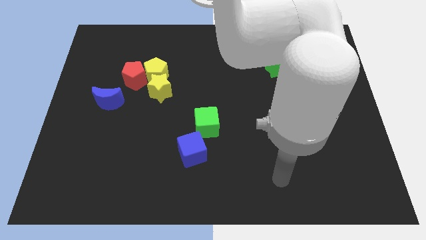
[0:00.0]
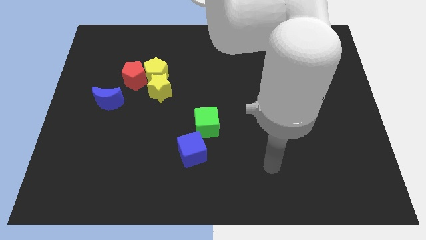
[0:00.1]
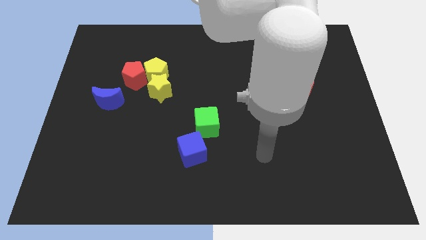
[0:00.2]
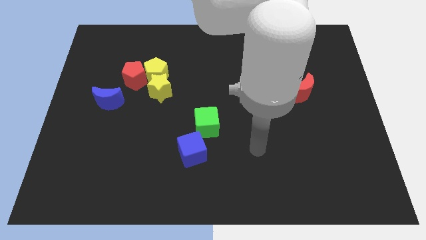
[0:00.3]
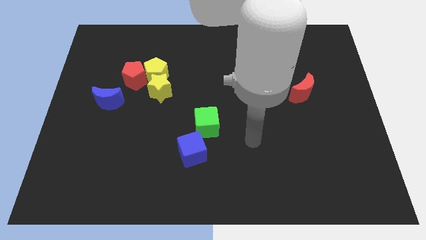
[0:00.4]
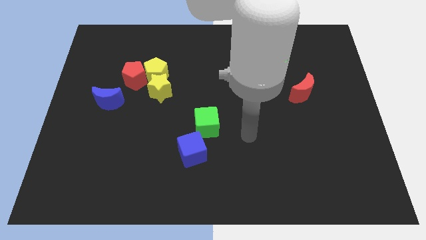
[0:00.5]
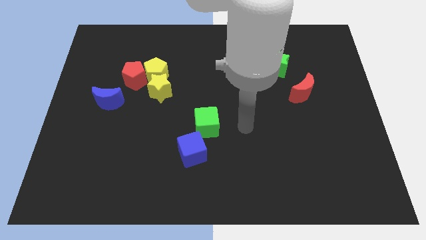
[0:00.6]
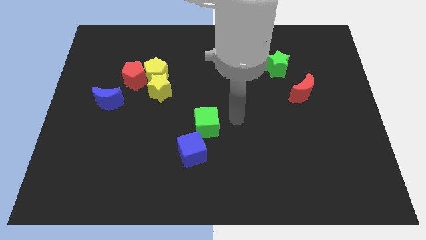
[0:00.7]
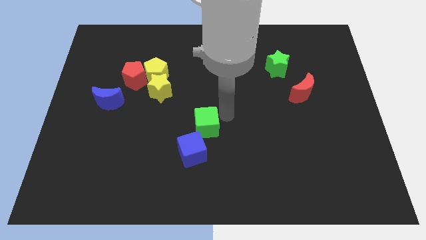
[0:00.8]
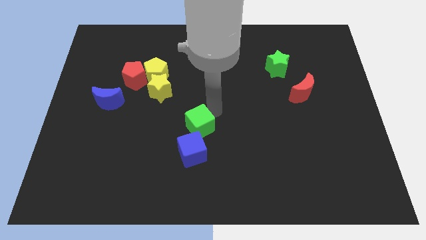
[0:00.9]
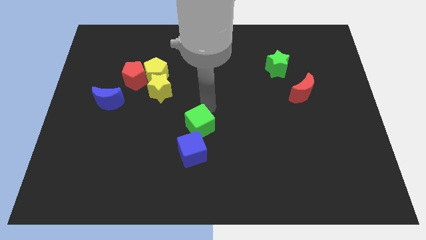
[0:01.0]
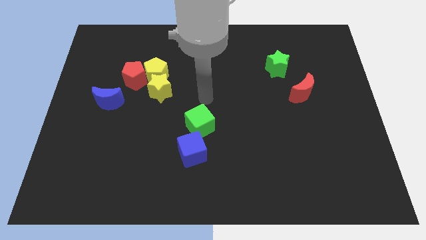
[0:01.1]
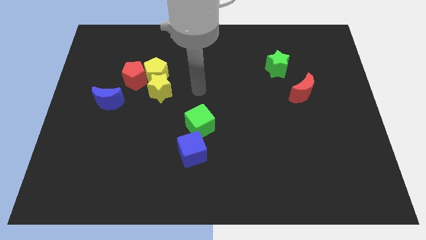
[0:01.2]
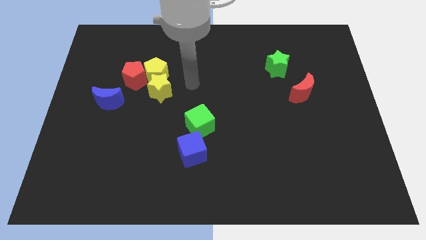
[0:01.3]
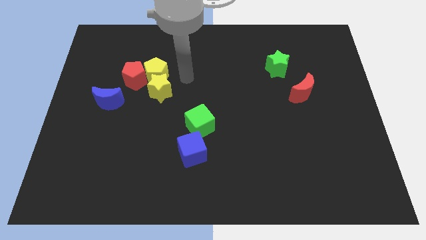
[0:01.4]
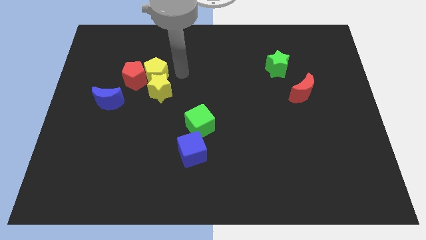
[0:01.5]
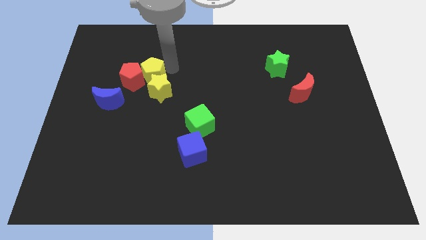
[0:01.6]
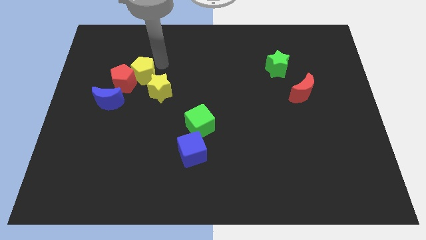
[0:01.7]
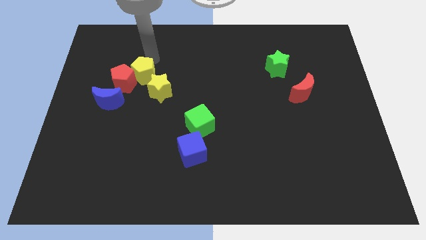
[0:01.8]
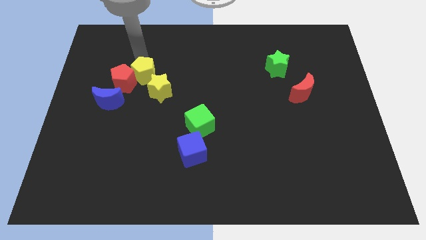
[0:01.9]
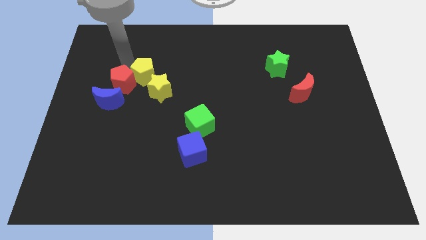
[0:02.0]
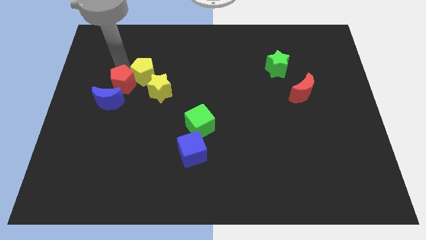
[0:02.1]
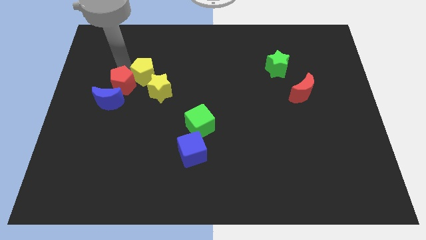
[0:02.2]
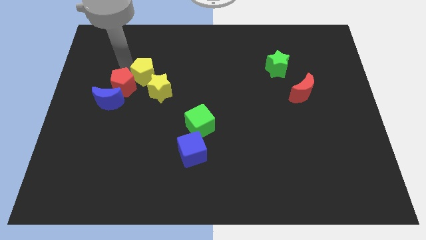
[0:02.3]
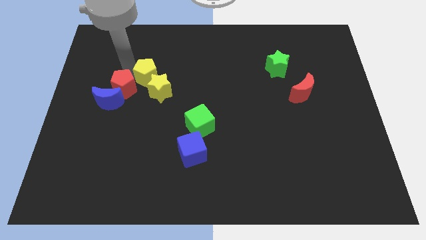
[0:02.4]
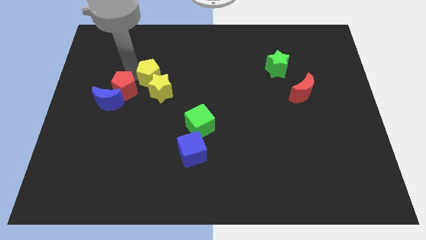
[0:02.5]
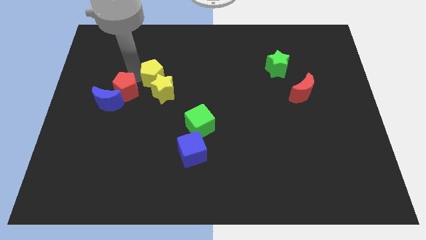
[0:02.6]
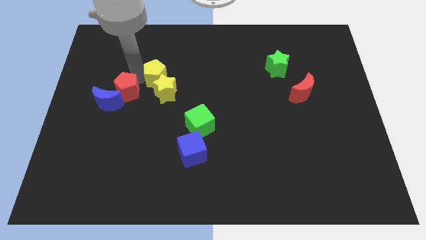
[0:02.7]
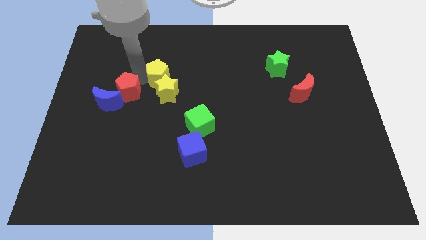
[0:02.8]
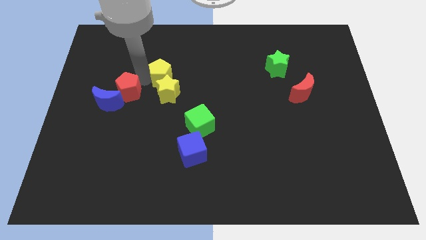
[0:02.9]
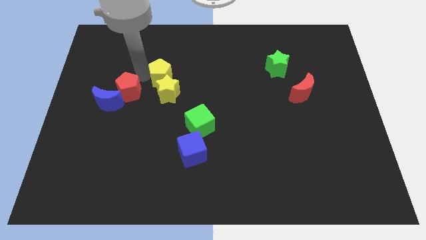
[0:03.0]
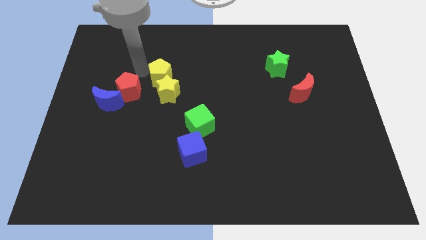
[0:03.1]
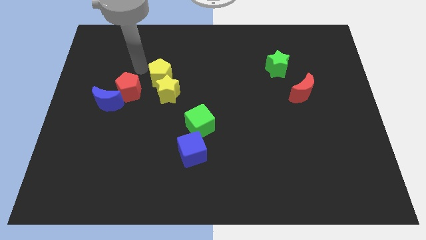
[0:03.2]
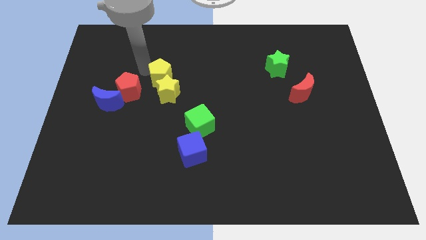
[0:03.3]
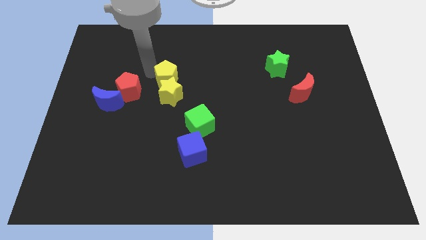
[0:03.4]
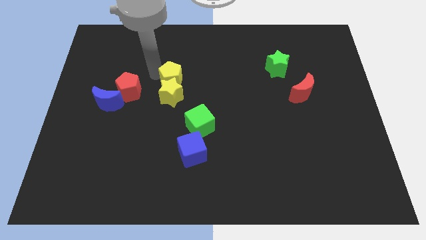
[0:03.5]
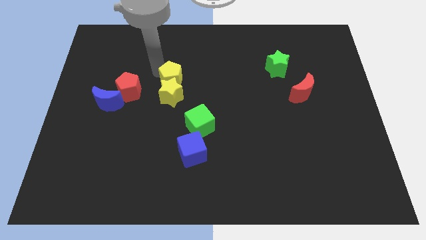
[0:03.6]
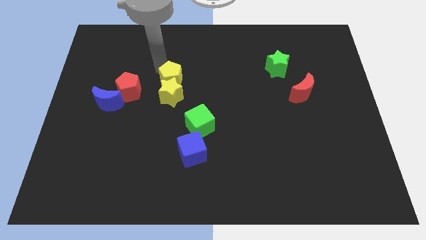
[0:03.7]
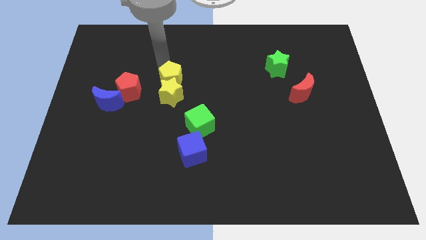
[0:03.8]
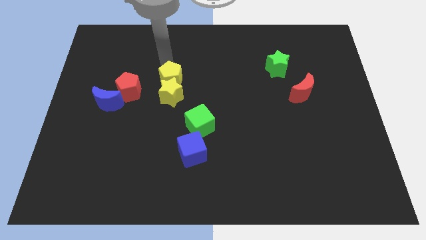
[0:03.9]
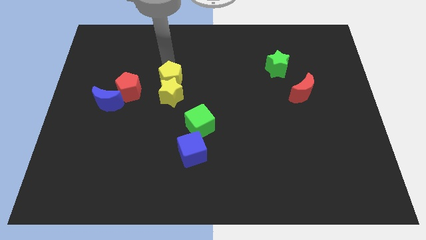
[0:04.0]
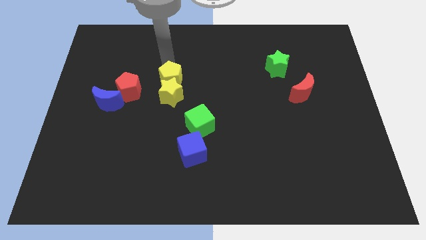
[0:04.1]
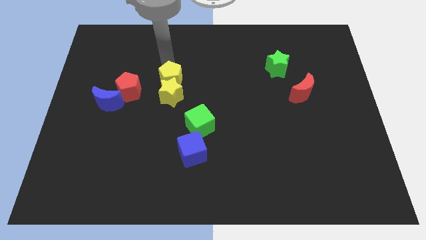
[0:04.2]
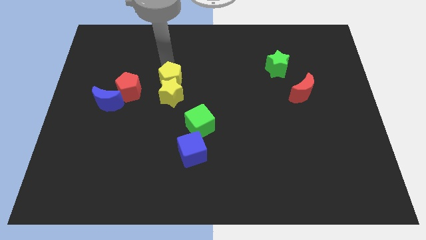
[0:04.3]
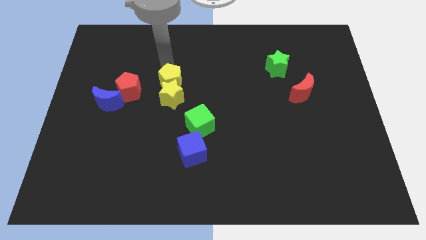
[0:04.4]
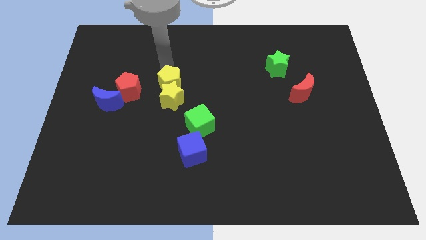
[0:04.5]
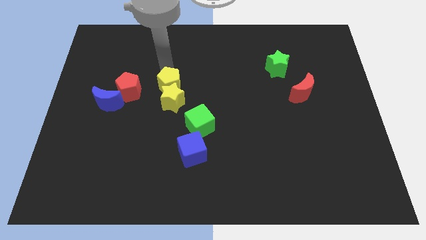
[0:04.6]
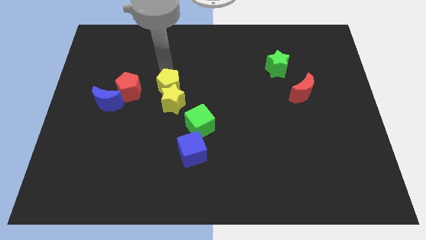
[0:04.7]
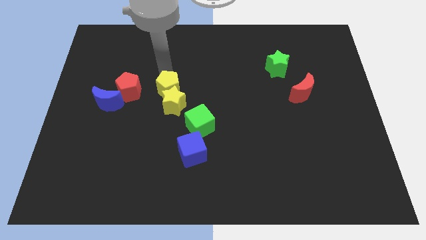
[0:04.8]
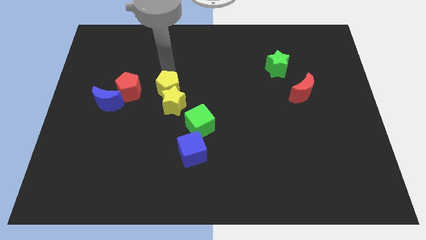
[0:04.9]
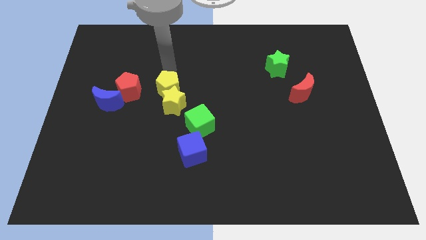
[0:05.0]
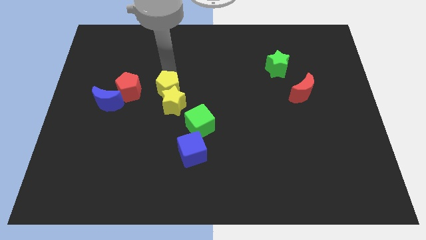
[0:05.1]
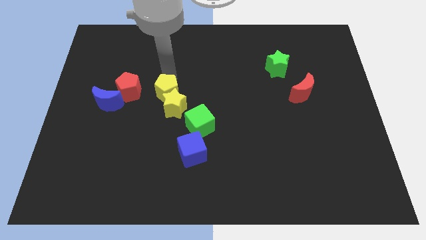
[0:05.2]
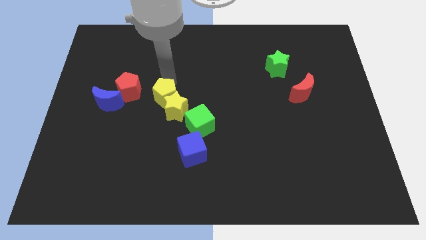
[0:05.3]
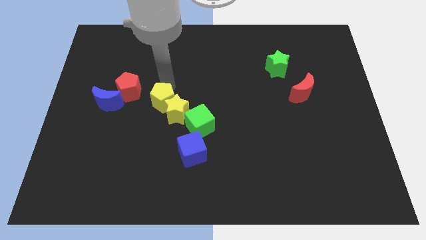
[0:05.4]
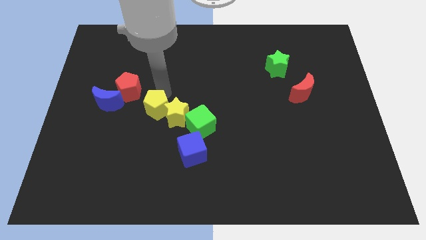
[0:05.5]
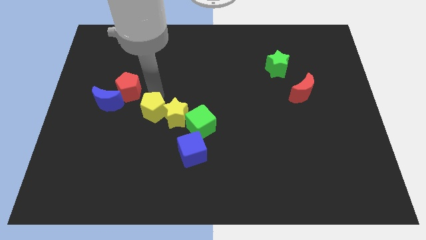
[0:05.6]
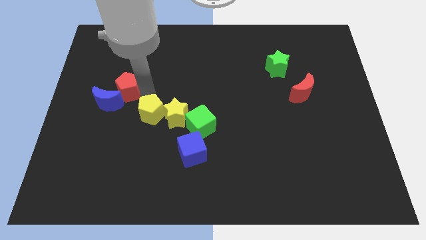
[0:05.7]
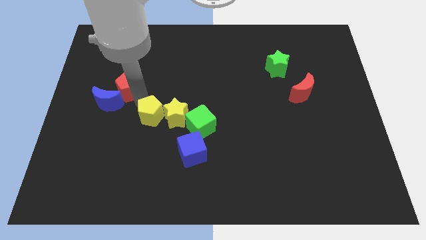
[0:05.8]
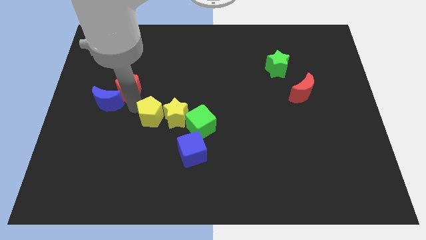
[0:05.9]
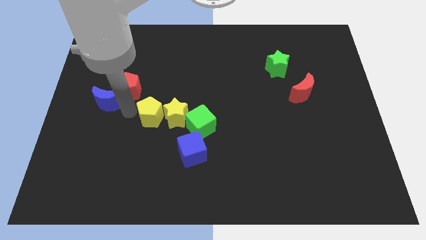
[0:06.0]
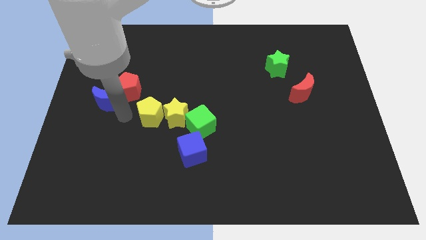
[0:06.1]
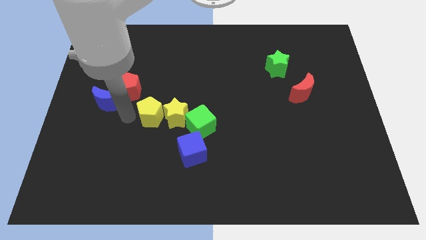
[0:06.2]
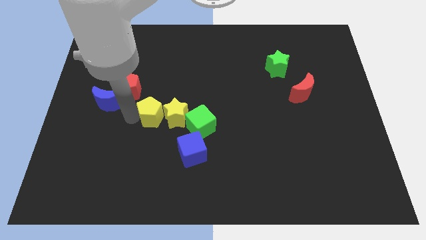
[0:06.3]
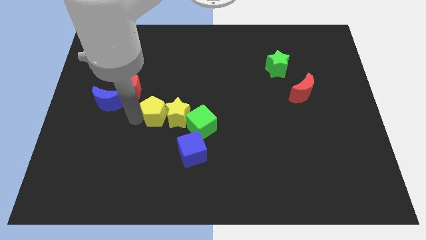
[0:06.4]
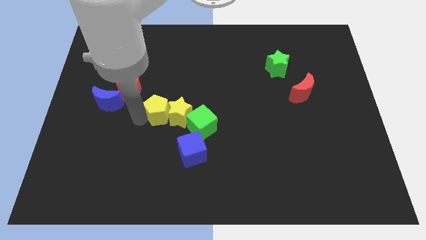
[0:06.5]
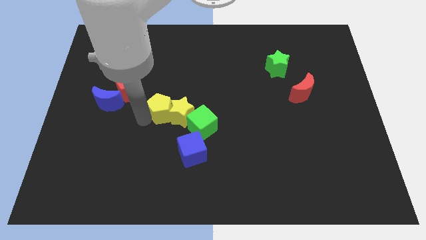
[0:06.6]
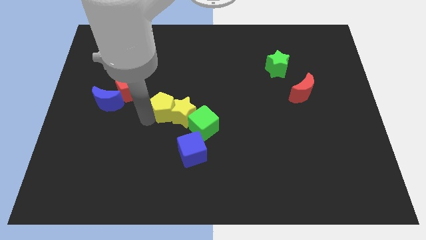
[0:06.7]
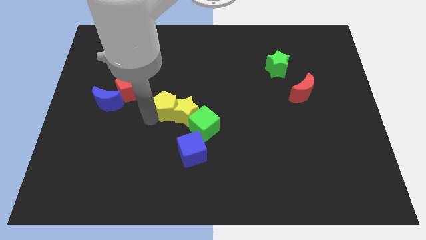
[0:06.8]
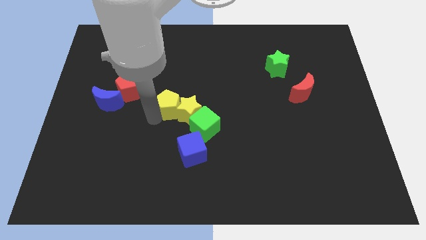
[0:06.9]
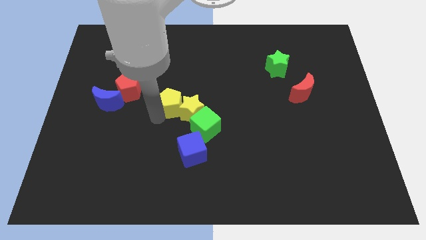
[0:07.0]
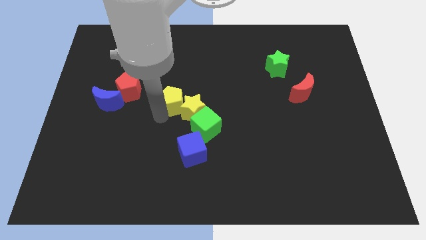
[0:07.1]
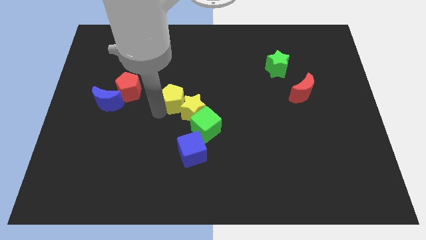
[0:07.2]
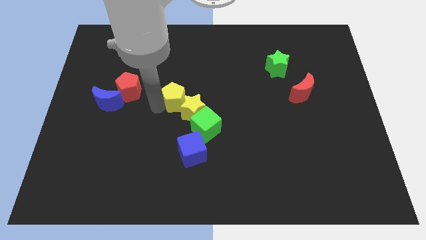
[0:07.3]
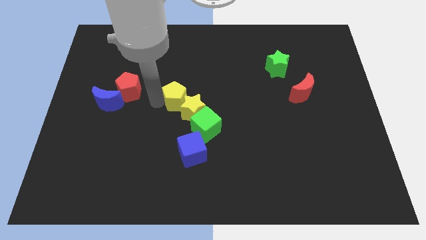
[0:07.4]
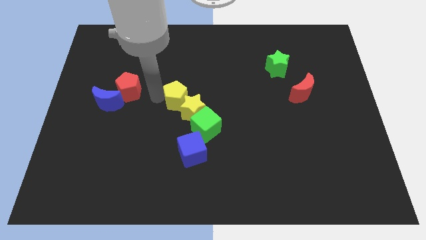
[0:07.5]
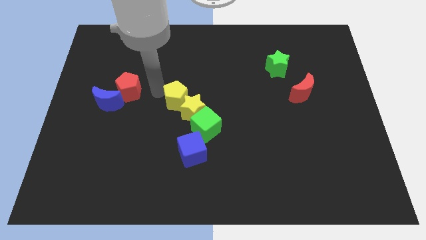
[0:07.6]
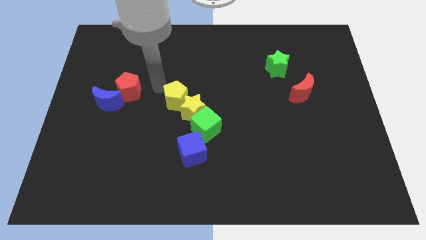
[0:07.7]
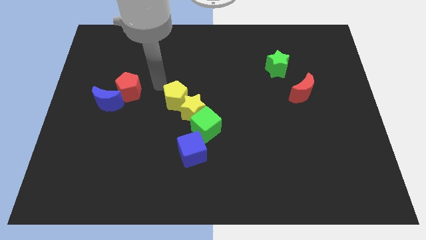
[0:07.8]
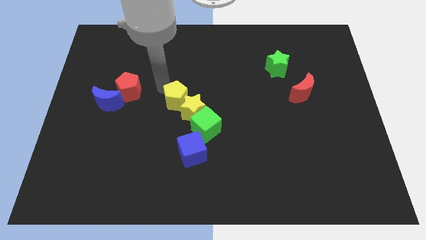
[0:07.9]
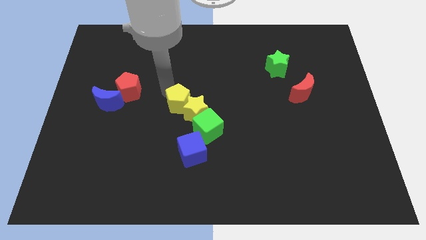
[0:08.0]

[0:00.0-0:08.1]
slide the yellow pentagon to the top side of the blue cube
